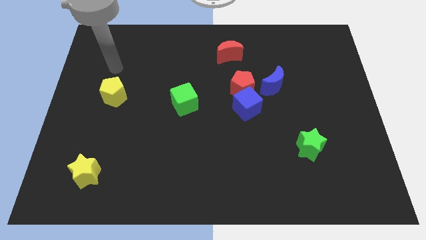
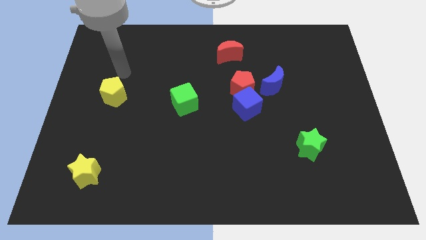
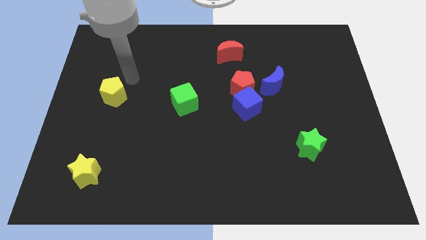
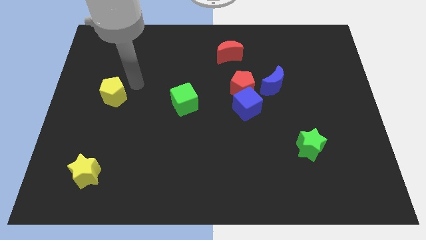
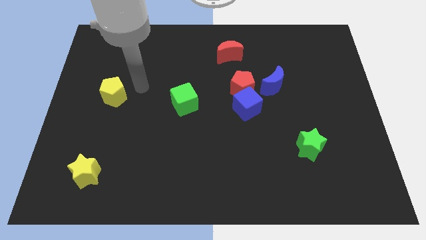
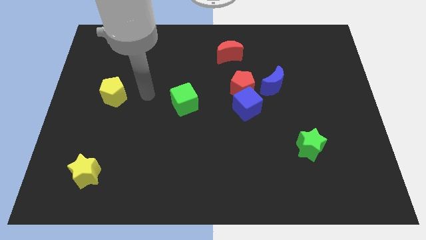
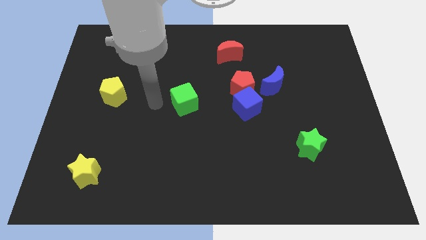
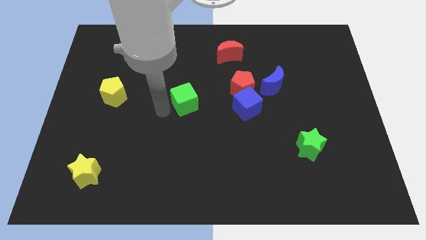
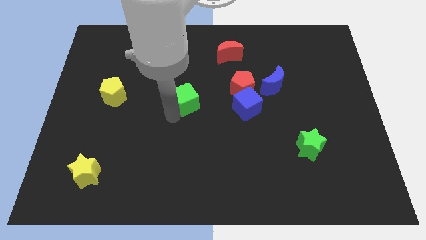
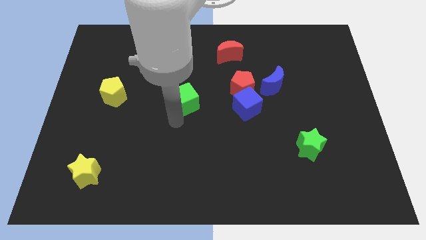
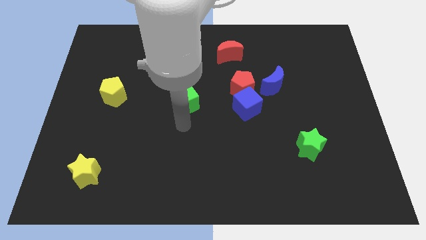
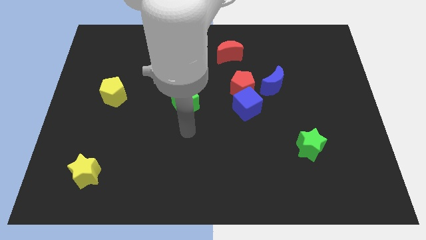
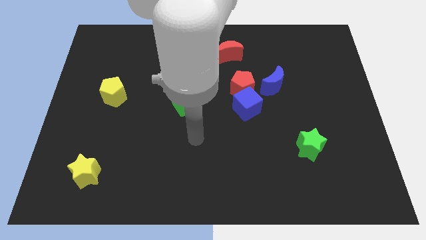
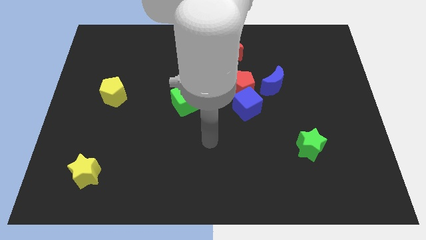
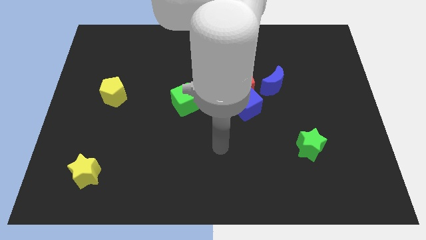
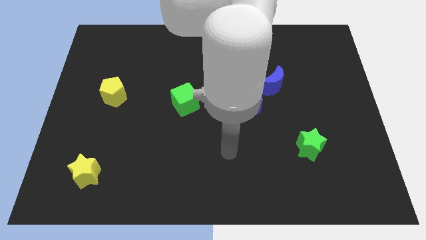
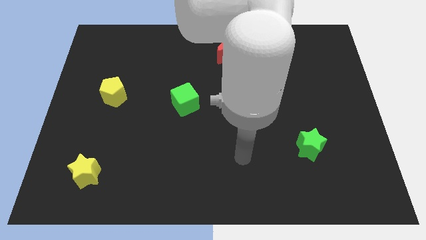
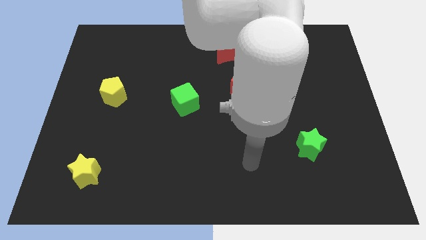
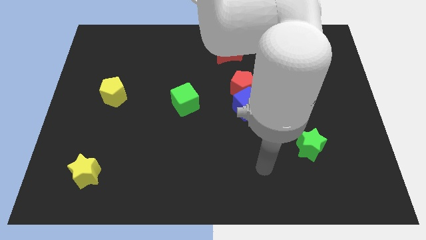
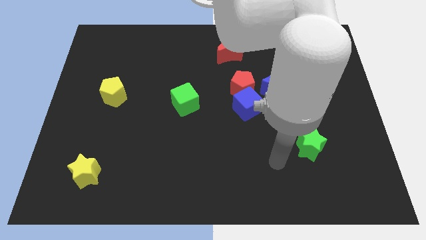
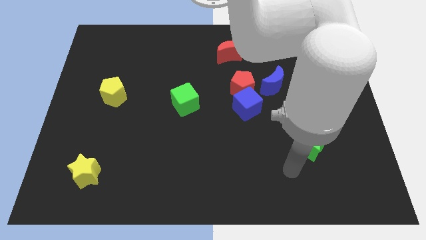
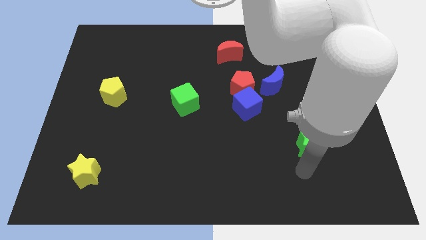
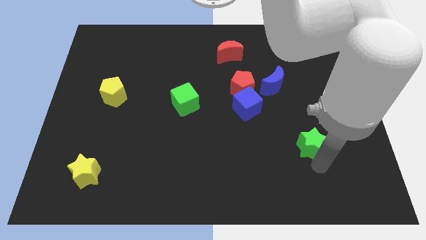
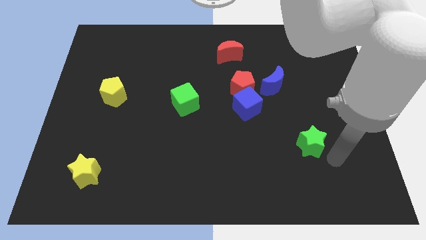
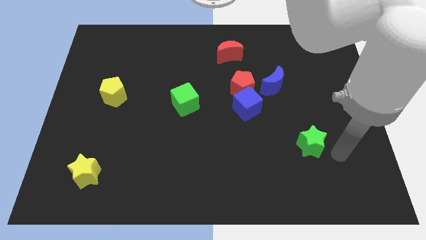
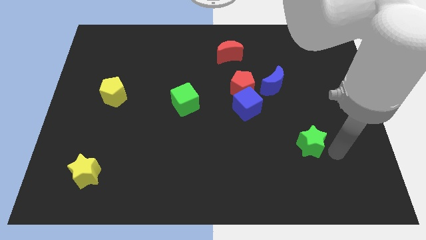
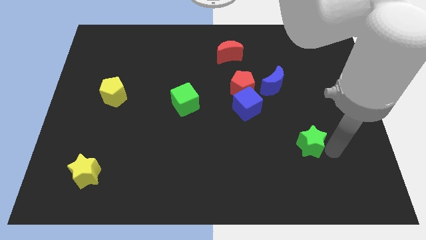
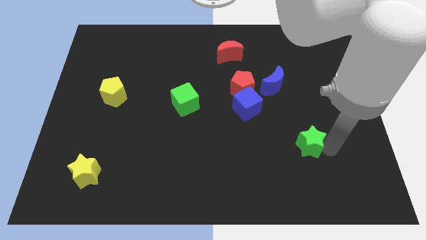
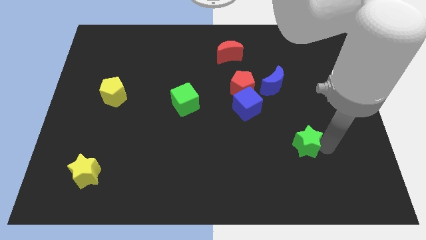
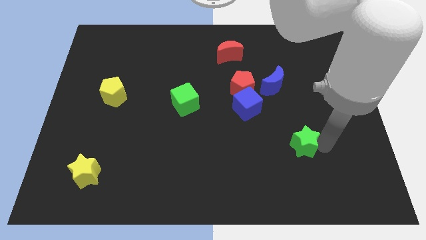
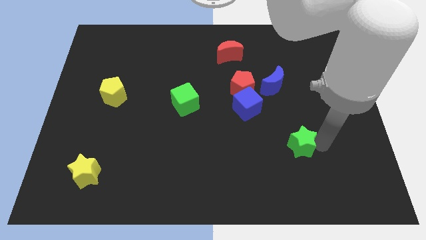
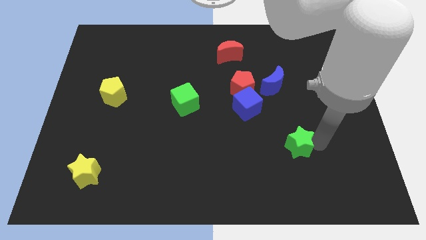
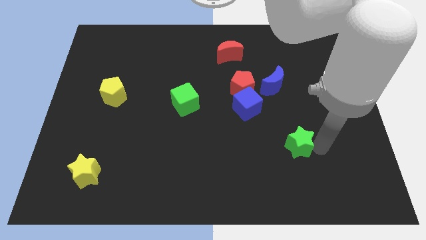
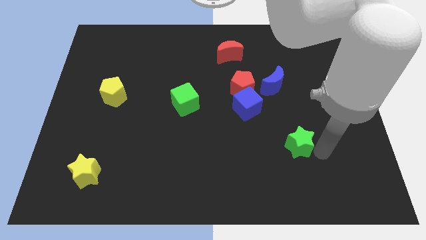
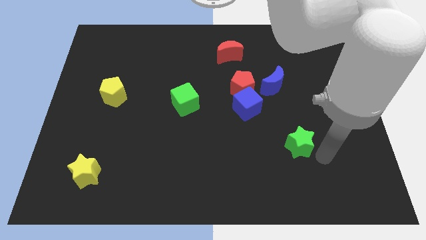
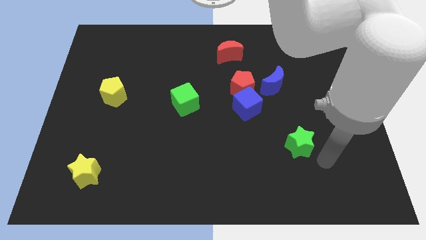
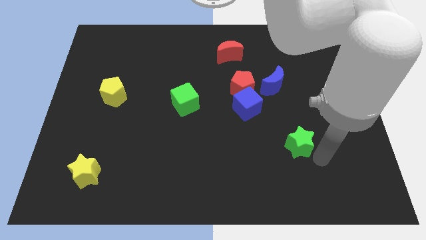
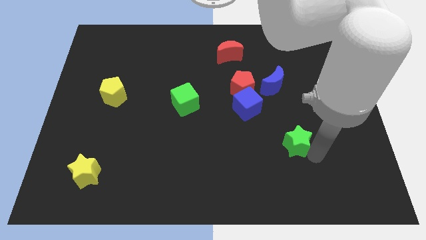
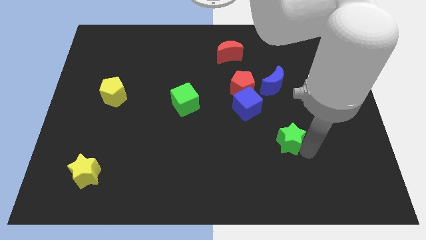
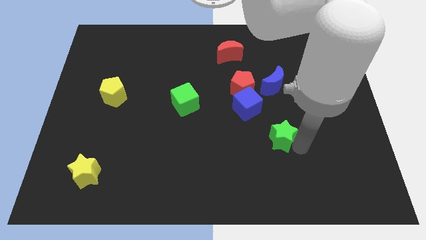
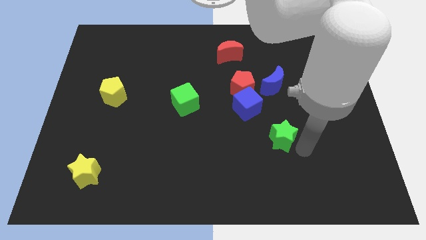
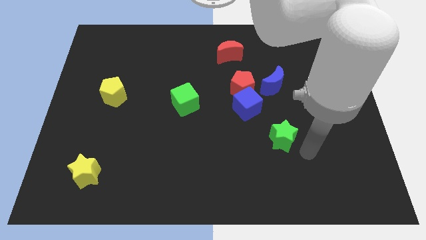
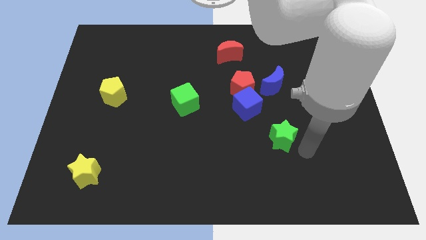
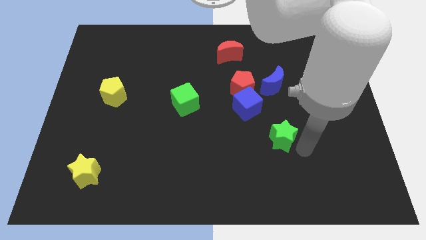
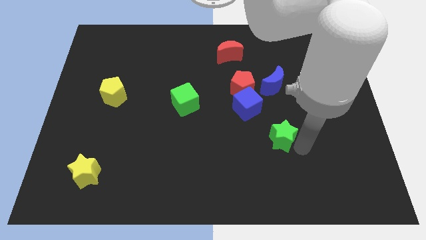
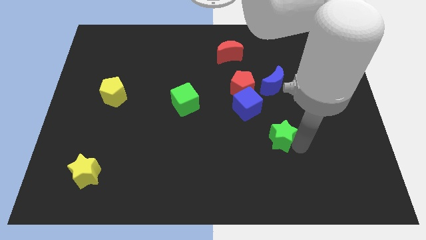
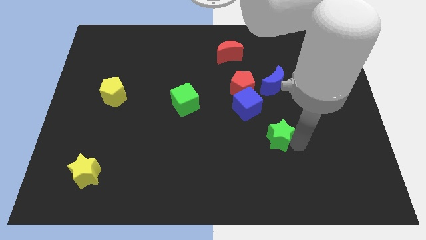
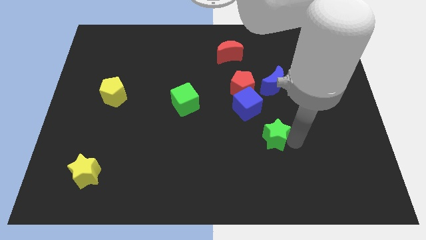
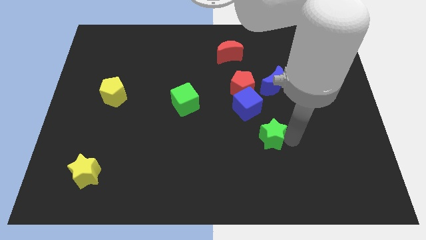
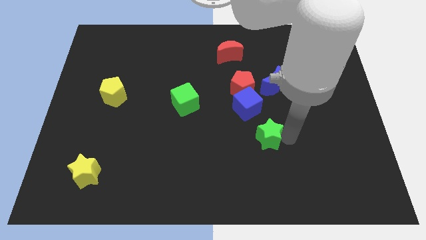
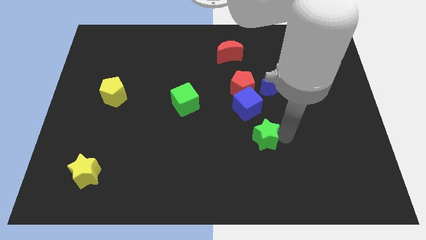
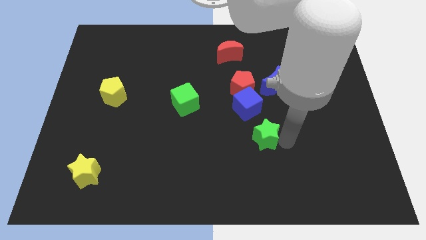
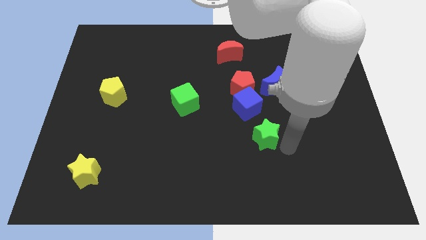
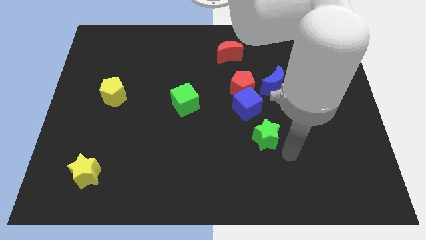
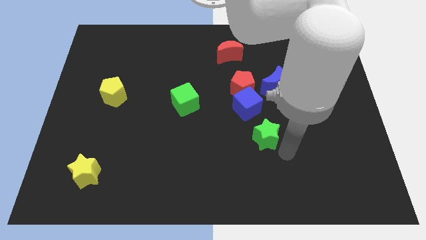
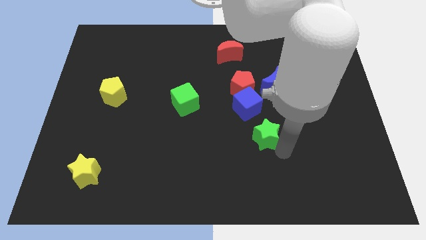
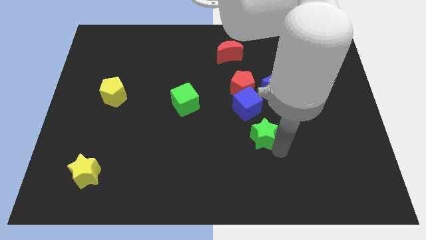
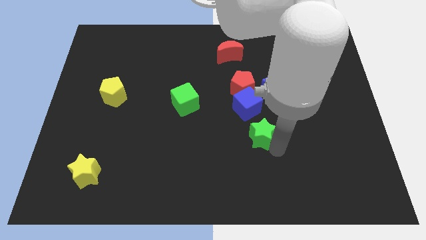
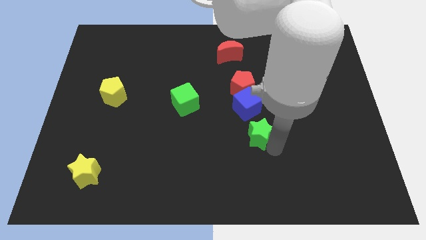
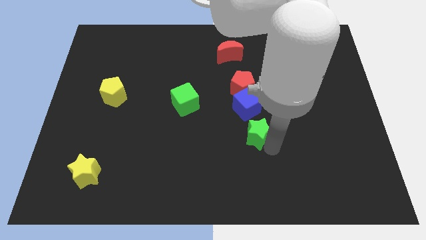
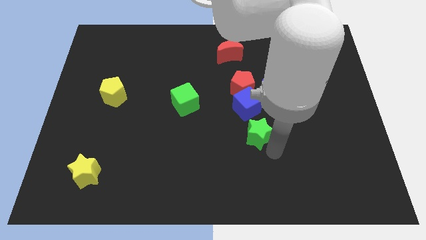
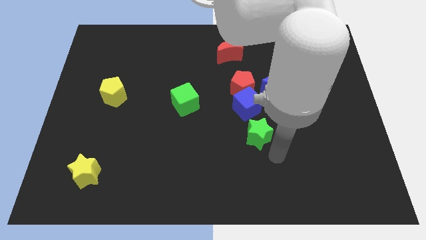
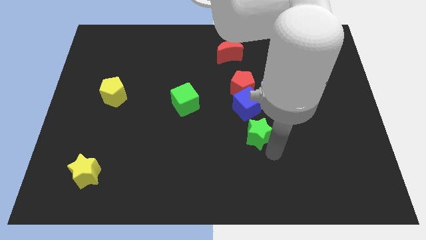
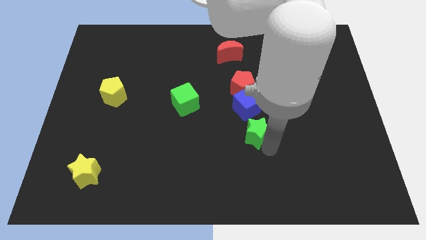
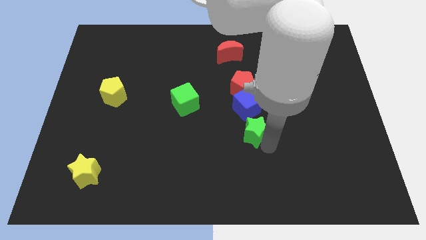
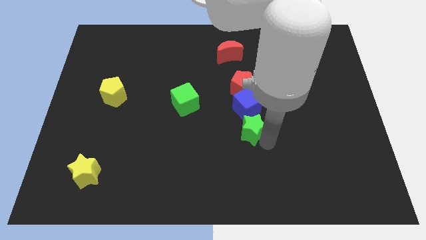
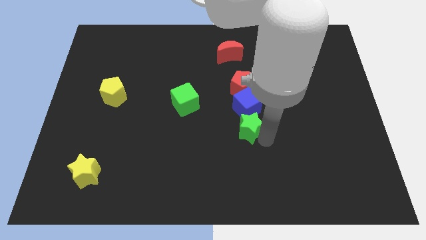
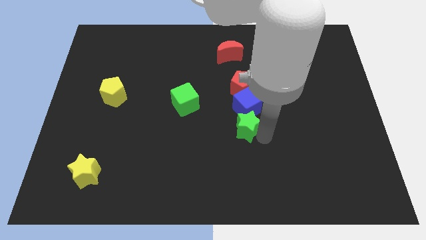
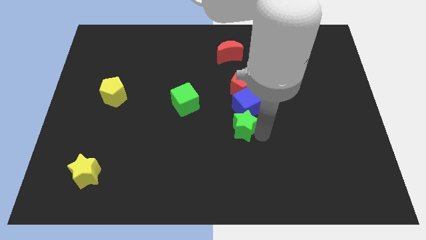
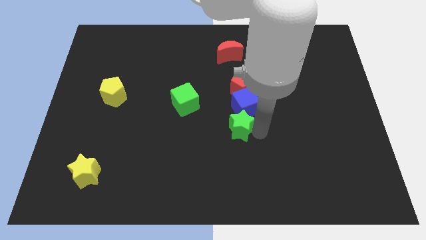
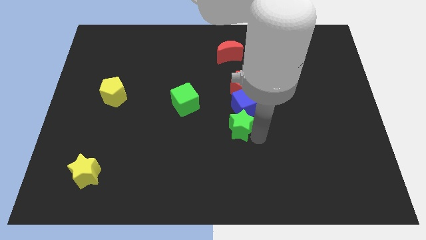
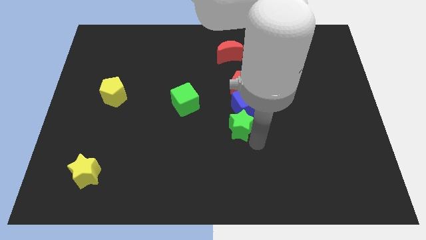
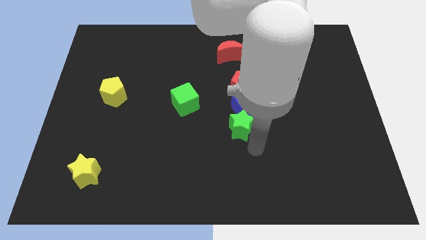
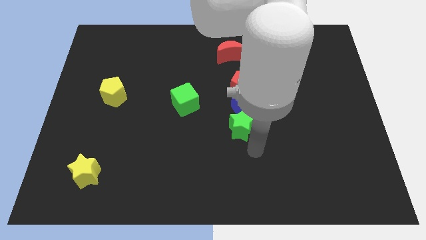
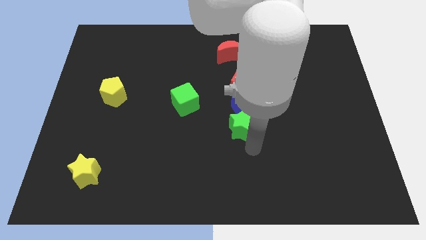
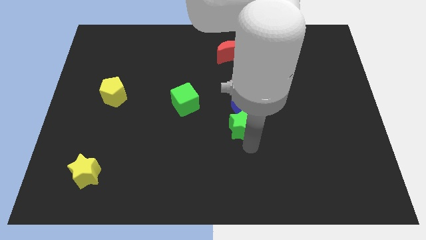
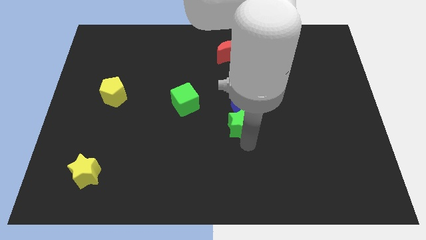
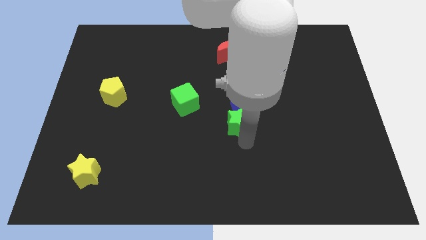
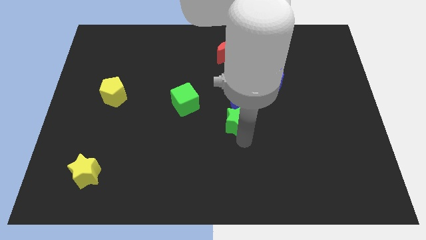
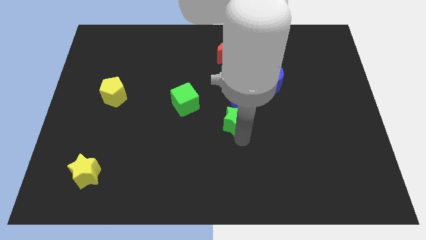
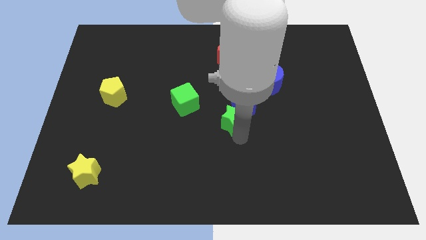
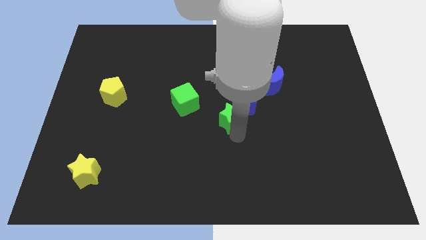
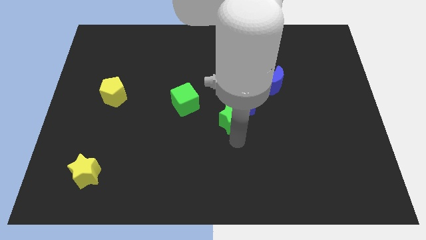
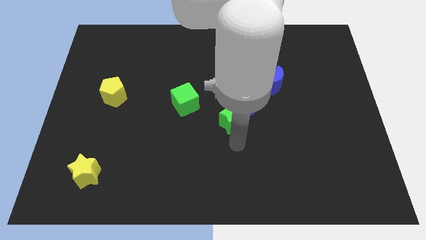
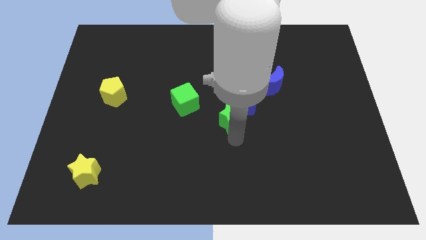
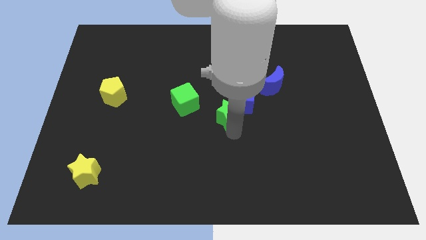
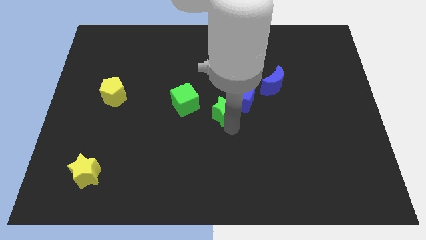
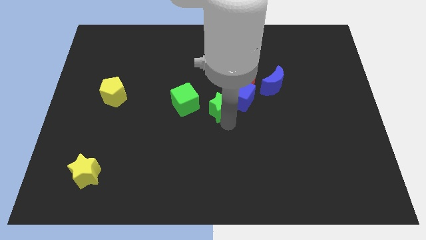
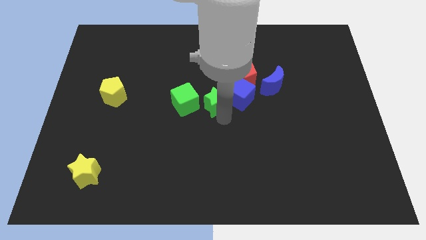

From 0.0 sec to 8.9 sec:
slide the green star upwards and left
